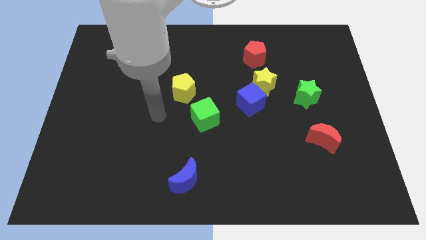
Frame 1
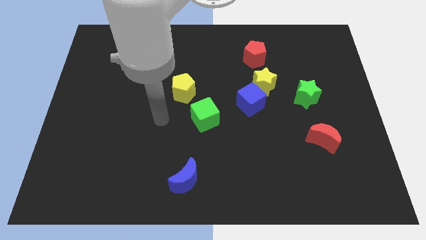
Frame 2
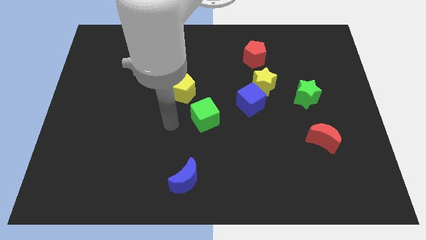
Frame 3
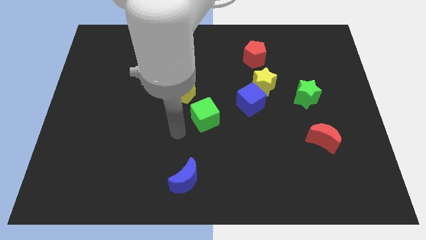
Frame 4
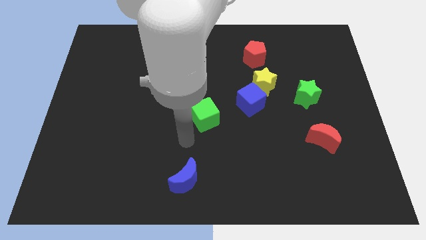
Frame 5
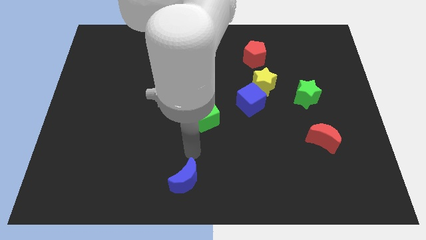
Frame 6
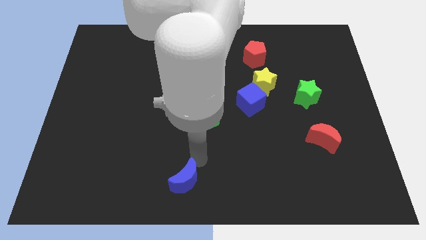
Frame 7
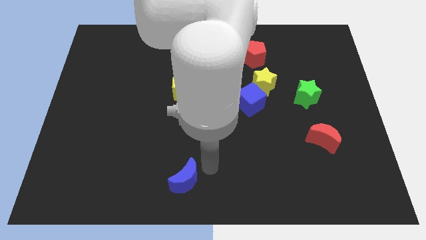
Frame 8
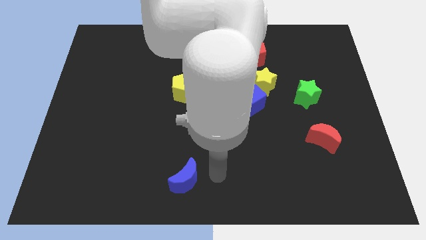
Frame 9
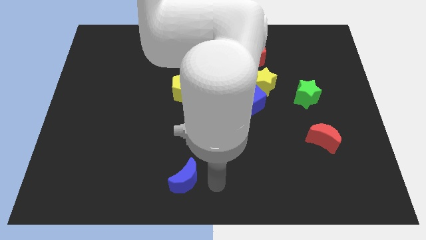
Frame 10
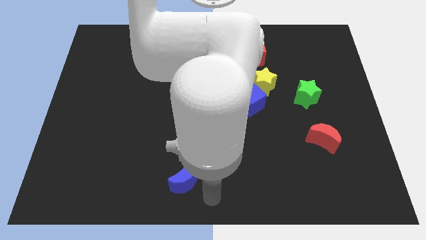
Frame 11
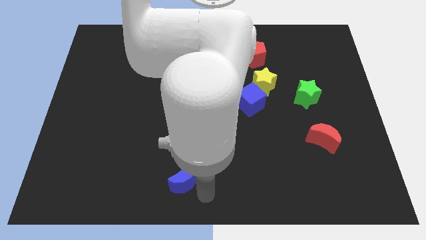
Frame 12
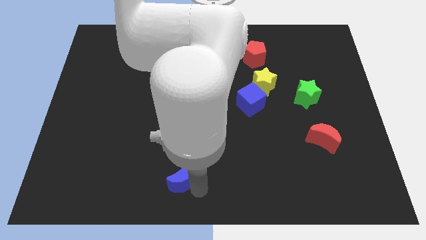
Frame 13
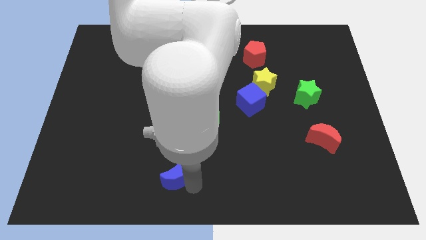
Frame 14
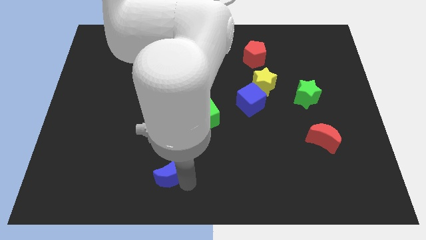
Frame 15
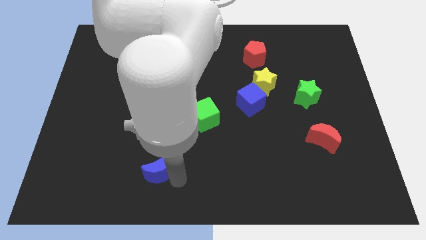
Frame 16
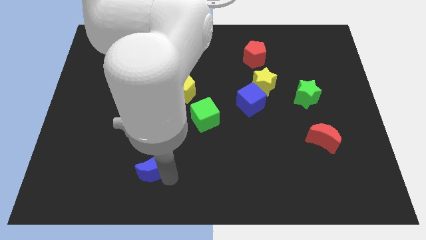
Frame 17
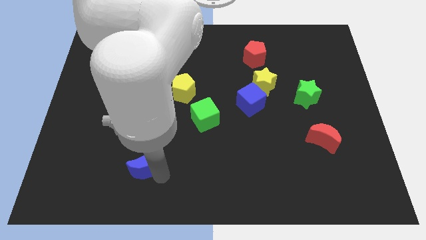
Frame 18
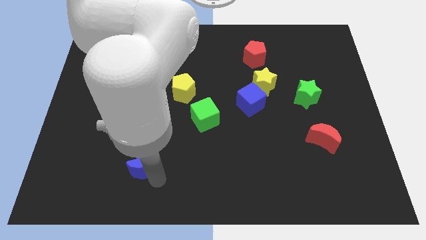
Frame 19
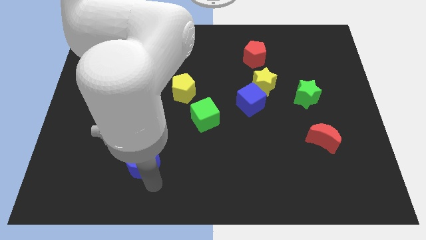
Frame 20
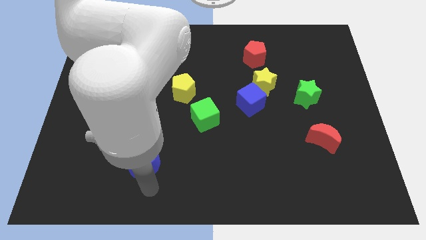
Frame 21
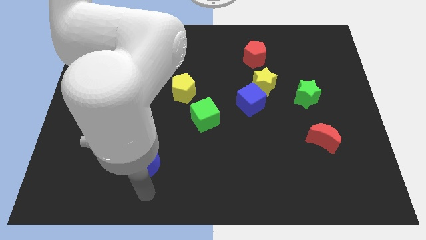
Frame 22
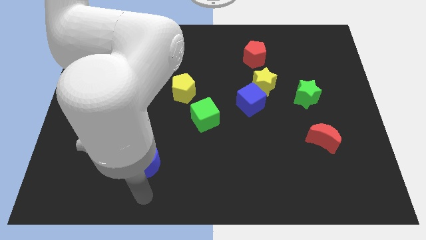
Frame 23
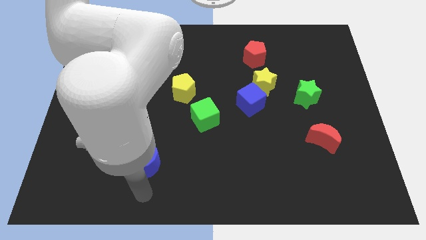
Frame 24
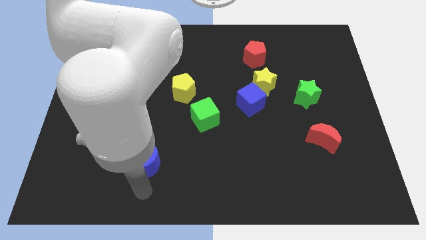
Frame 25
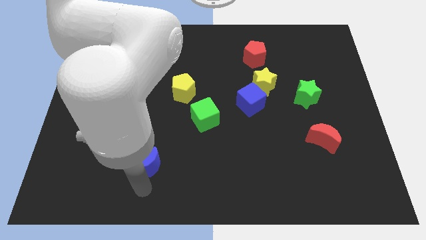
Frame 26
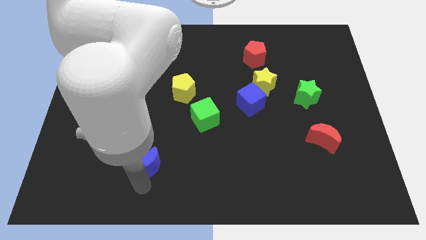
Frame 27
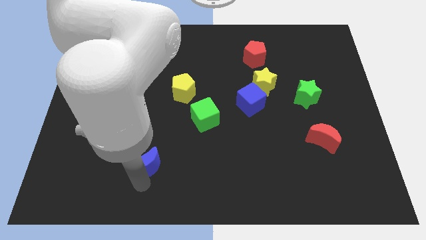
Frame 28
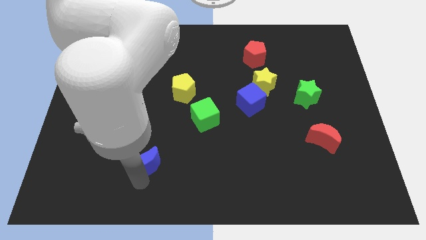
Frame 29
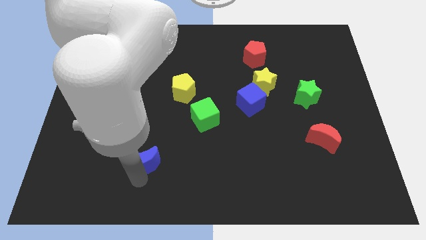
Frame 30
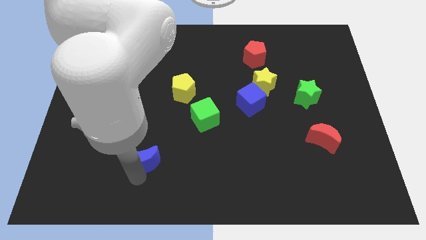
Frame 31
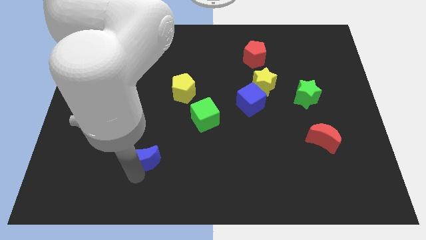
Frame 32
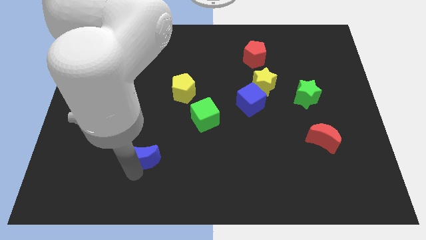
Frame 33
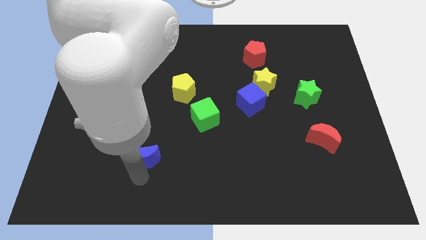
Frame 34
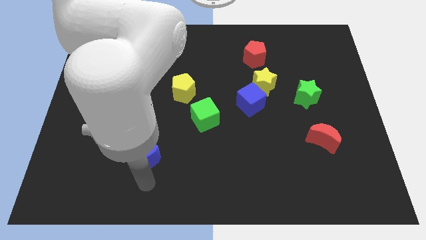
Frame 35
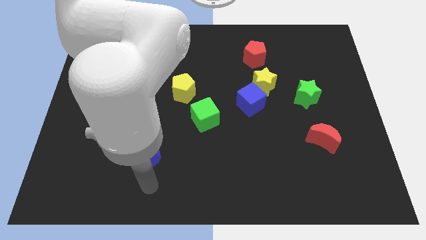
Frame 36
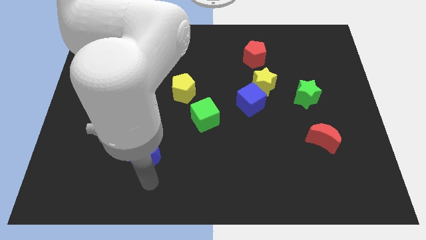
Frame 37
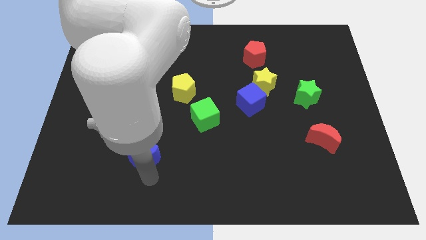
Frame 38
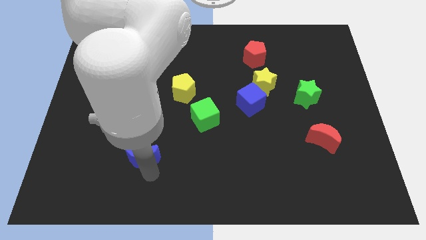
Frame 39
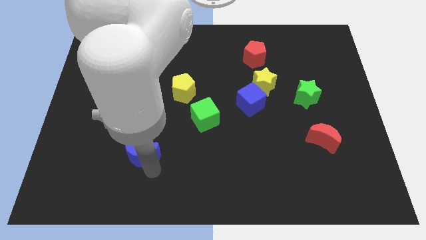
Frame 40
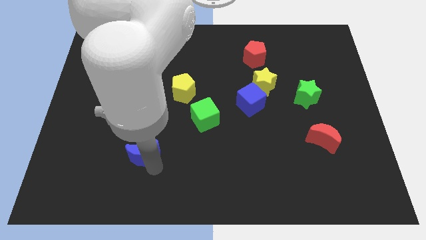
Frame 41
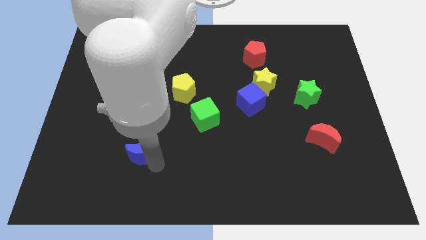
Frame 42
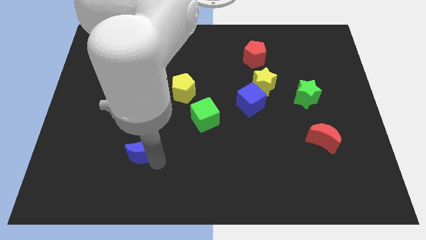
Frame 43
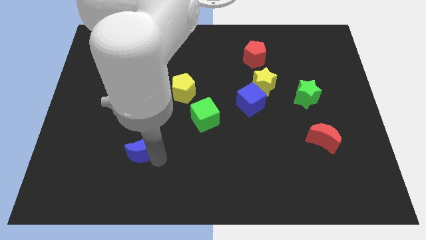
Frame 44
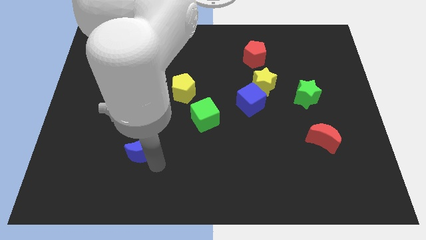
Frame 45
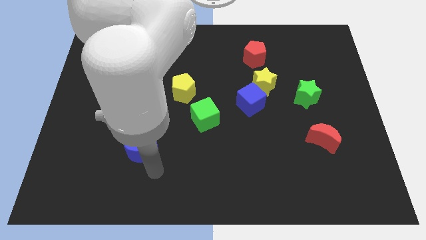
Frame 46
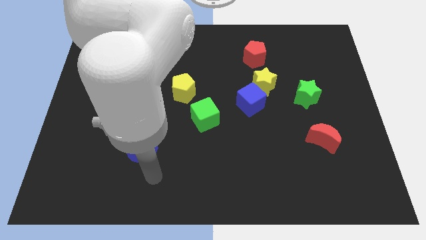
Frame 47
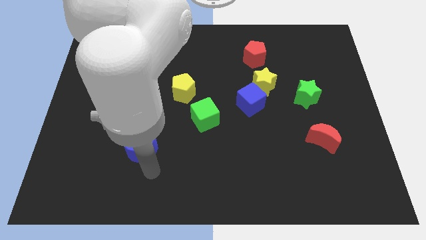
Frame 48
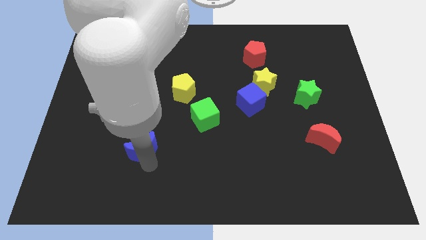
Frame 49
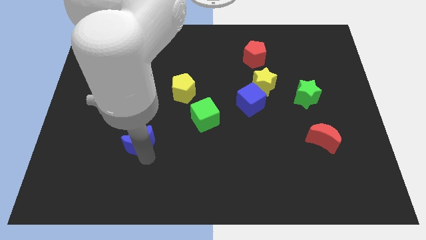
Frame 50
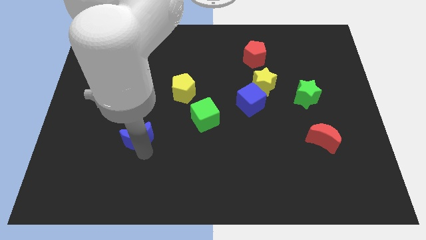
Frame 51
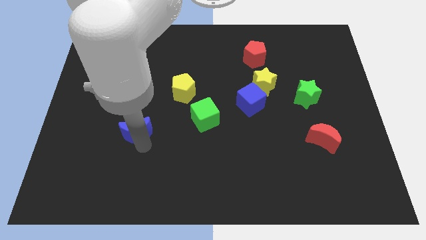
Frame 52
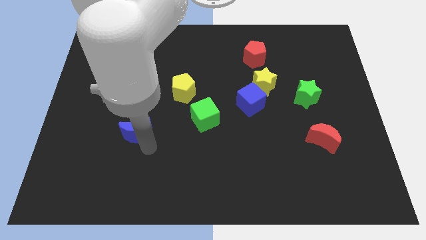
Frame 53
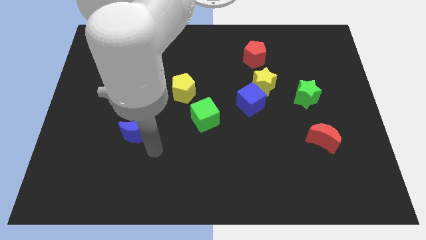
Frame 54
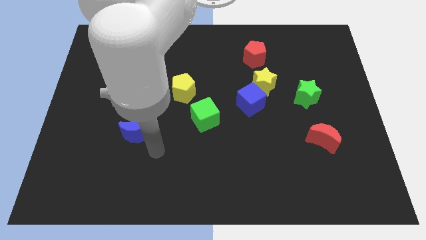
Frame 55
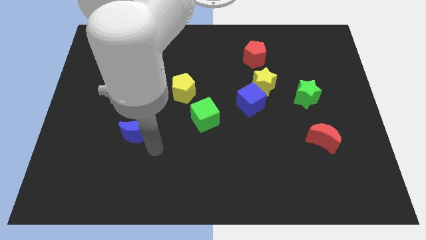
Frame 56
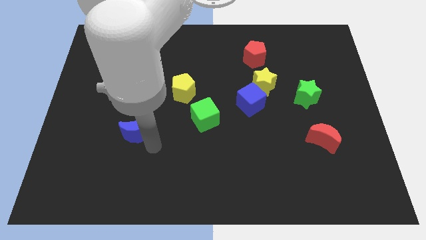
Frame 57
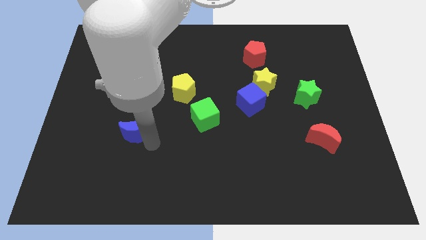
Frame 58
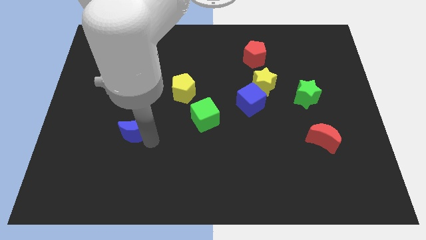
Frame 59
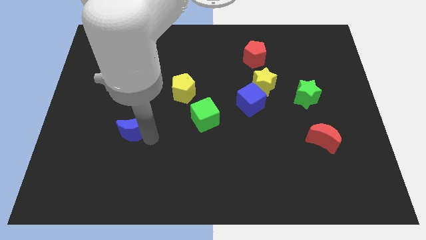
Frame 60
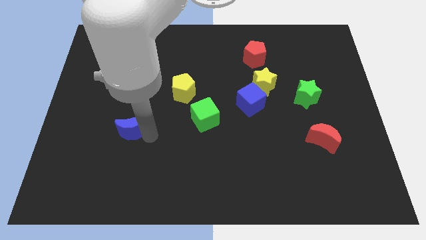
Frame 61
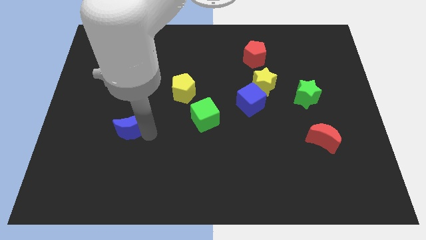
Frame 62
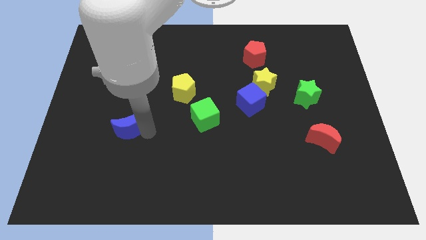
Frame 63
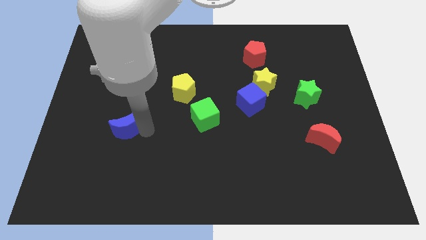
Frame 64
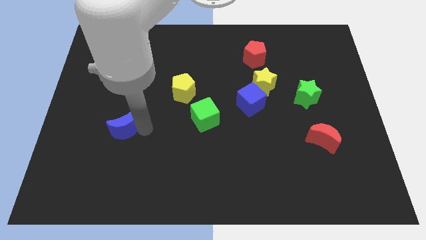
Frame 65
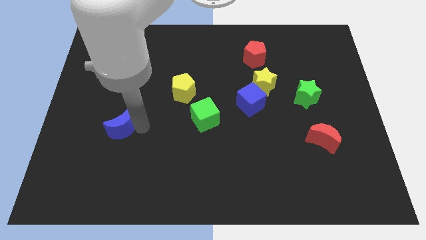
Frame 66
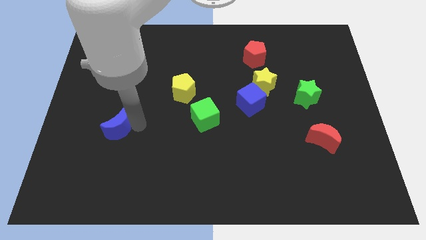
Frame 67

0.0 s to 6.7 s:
move the blue moon diagonally upwards and to the left

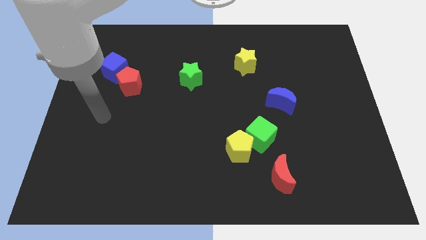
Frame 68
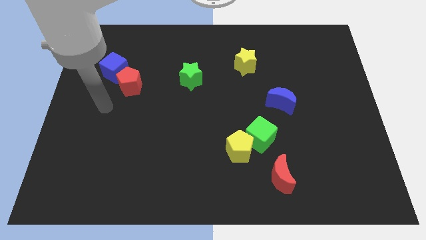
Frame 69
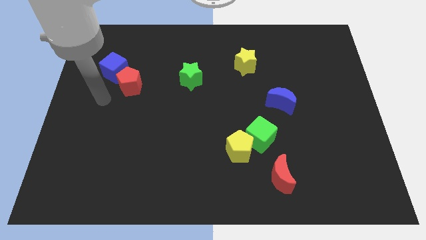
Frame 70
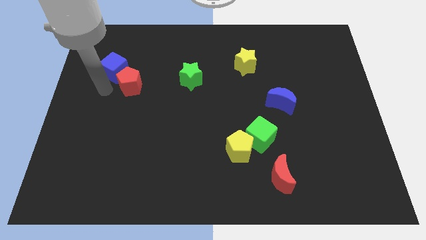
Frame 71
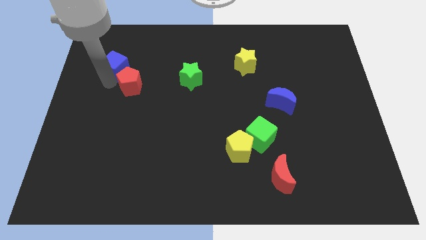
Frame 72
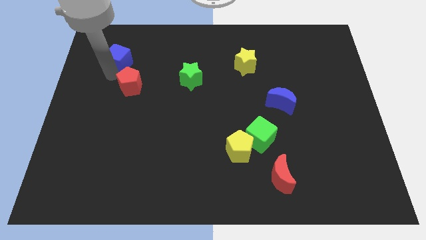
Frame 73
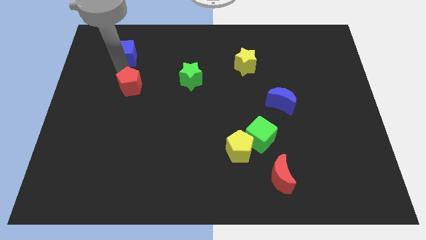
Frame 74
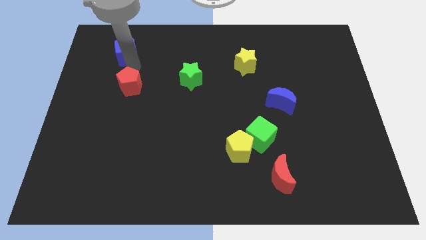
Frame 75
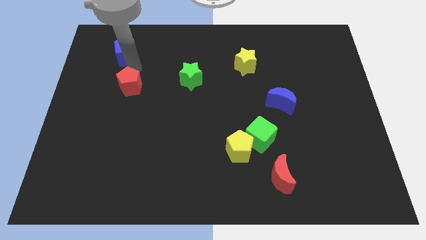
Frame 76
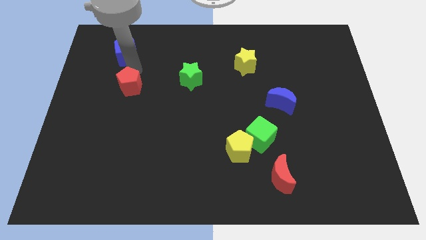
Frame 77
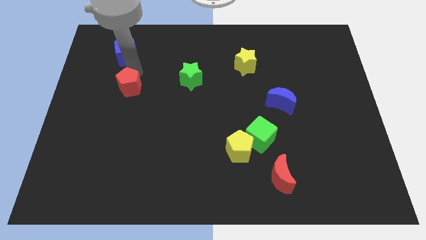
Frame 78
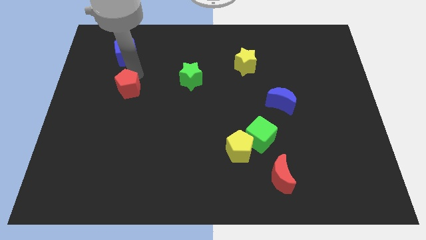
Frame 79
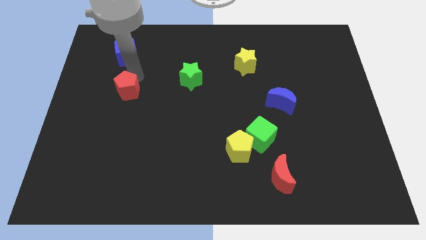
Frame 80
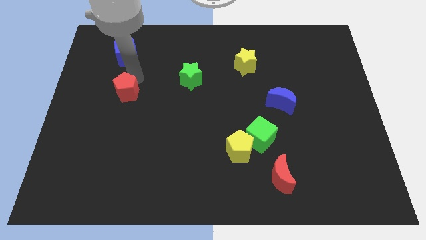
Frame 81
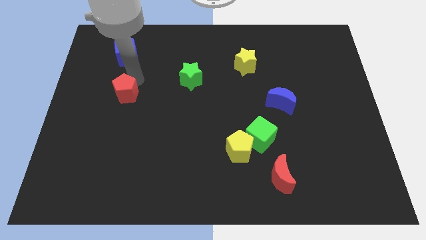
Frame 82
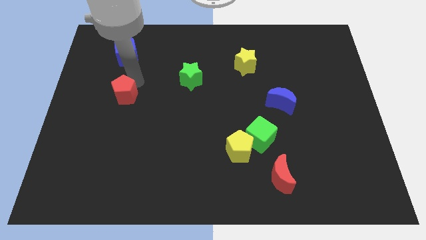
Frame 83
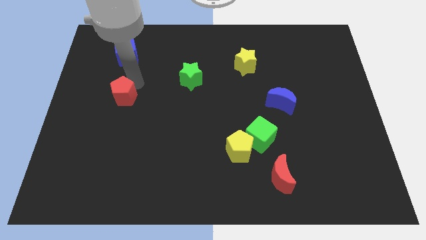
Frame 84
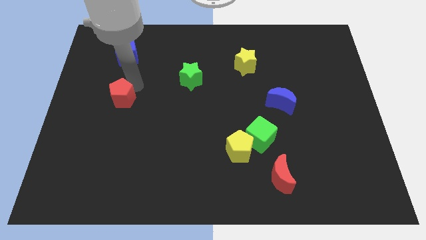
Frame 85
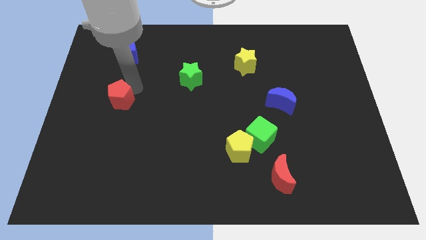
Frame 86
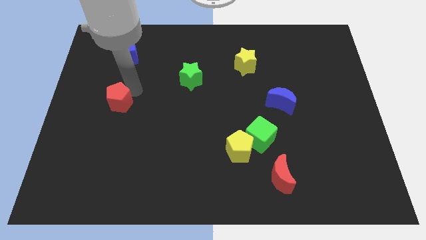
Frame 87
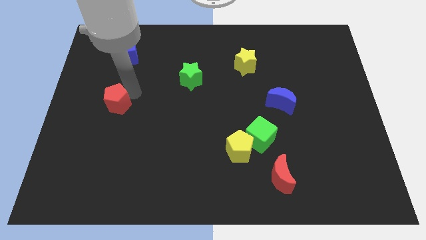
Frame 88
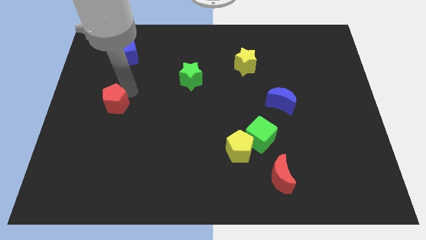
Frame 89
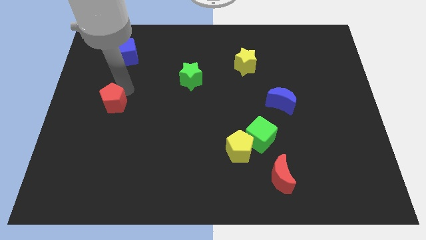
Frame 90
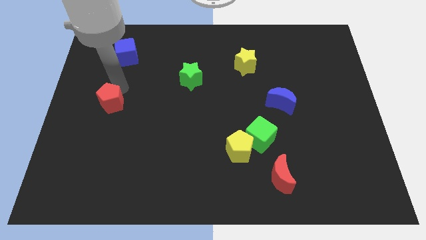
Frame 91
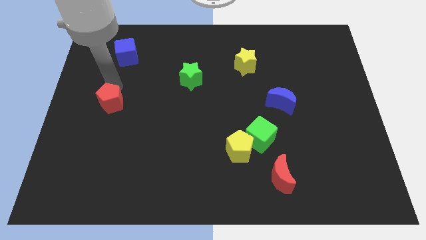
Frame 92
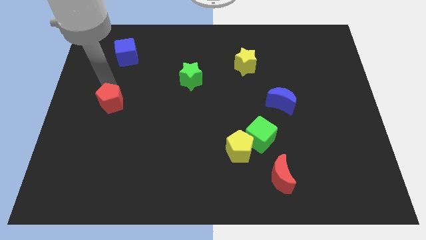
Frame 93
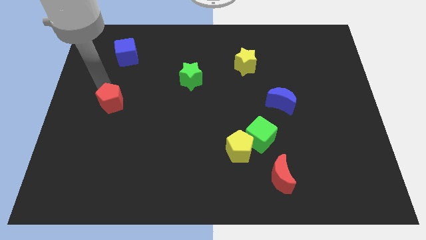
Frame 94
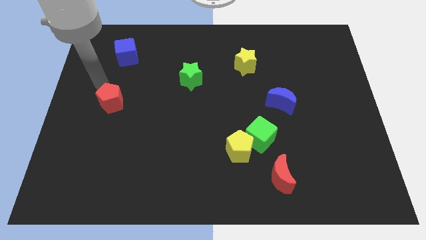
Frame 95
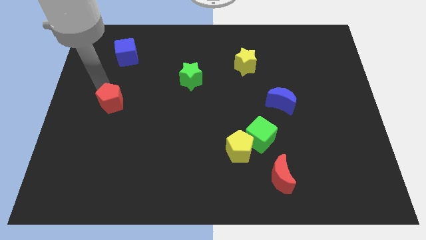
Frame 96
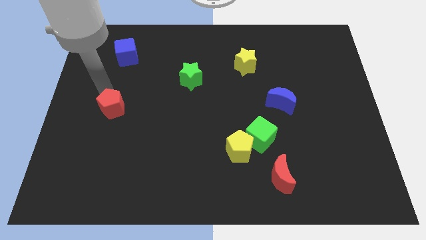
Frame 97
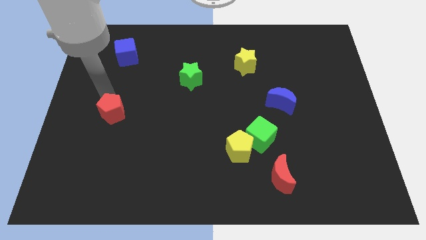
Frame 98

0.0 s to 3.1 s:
slide the red pentagon somewhat downwards
